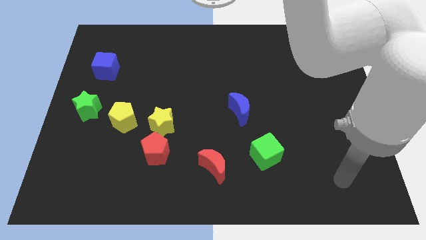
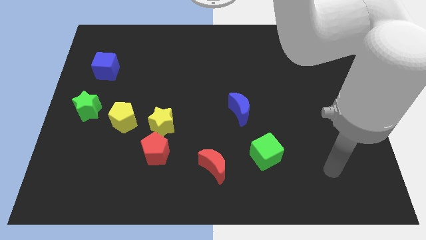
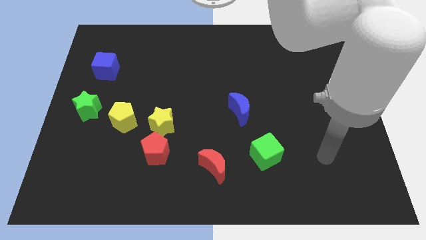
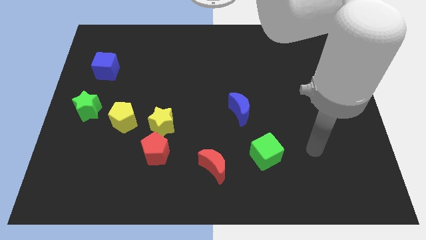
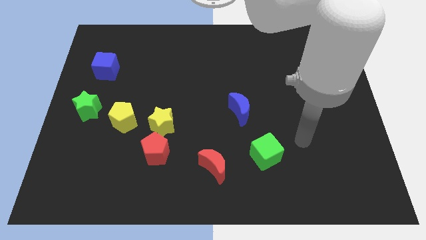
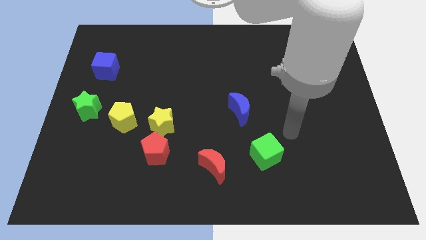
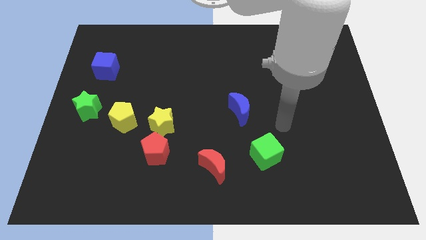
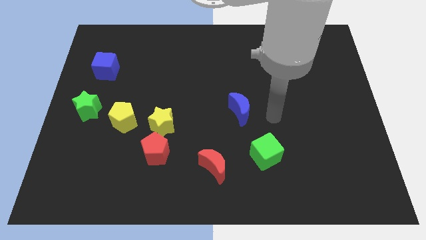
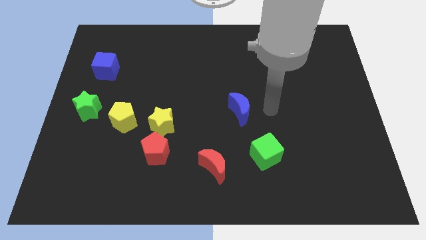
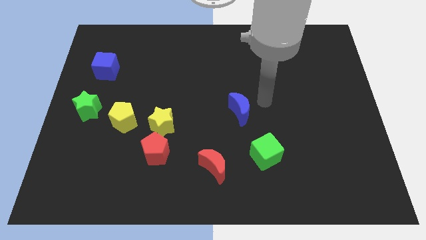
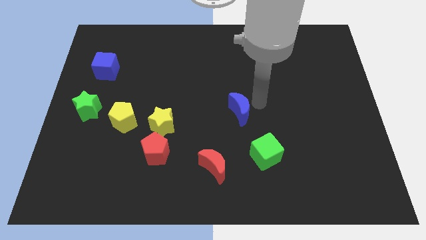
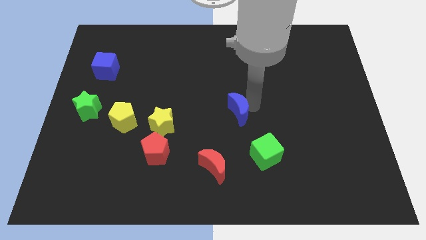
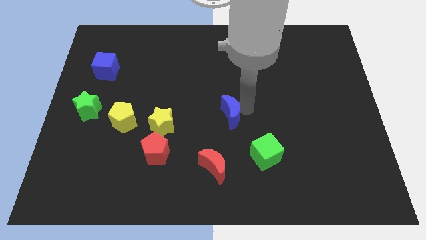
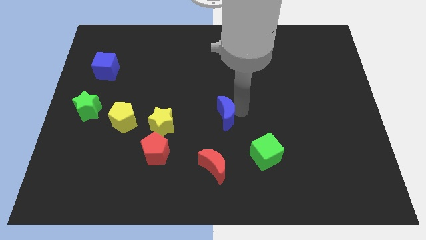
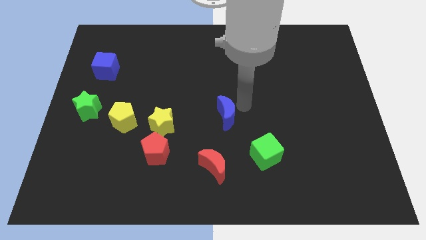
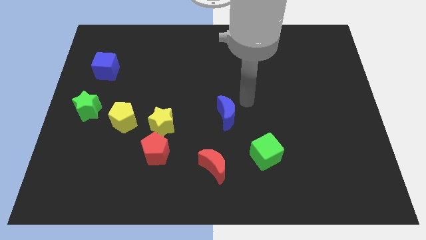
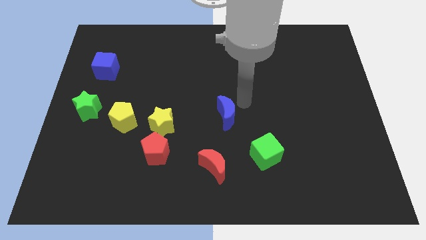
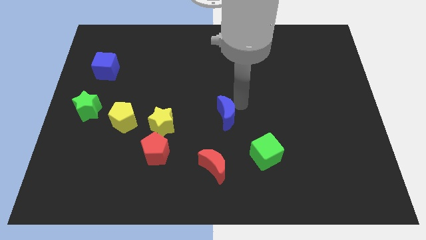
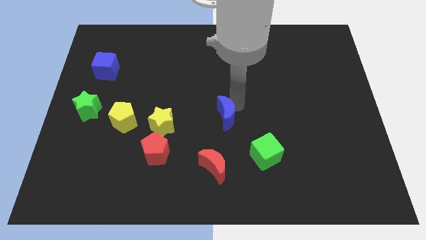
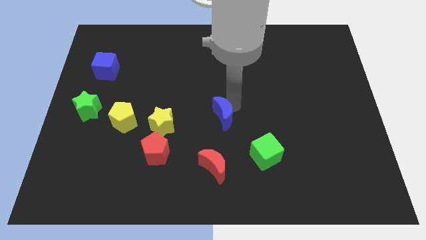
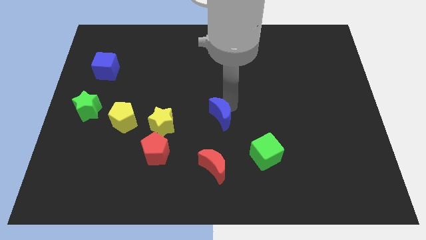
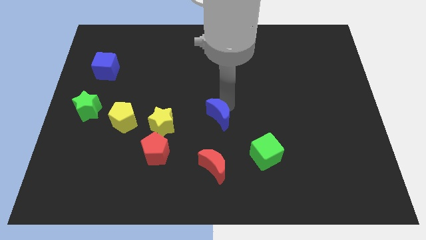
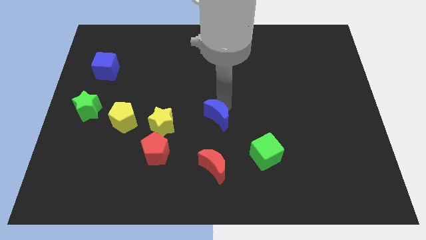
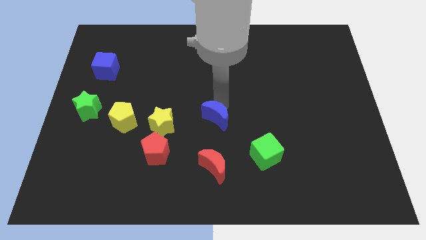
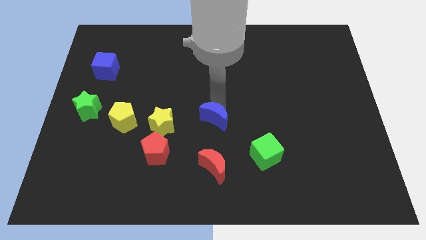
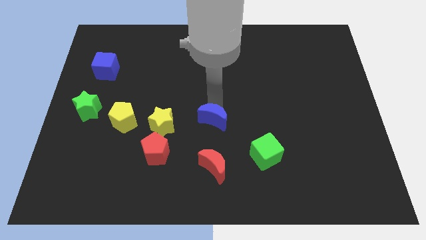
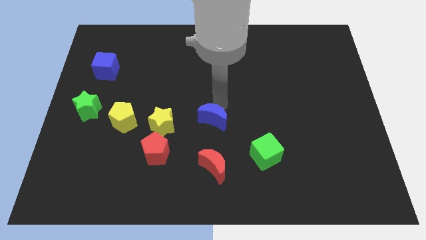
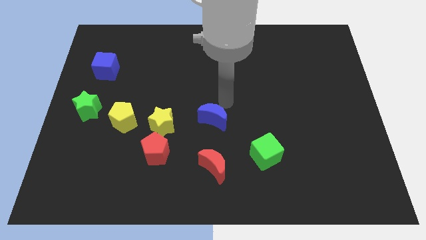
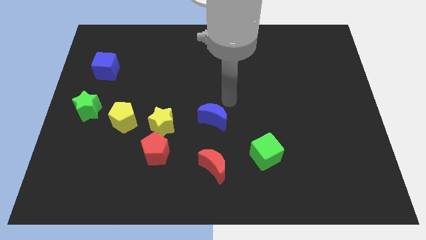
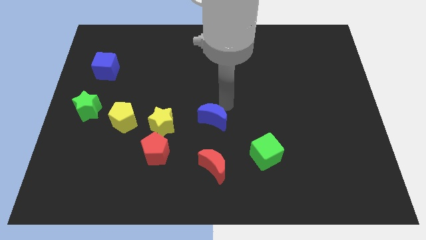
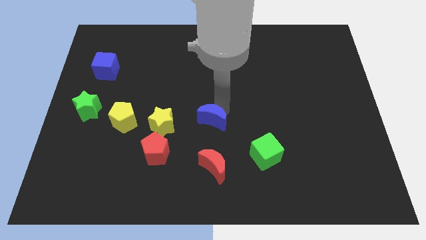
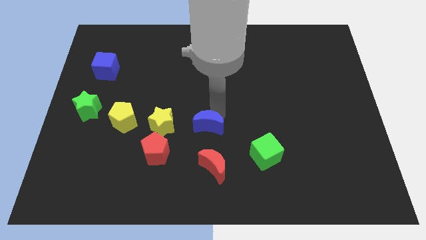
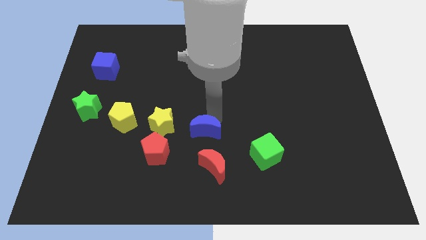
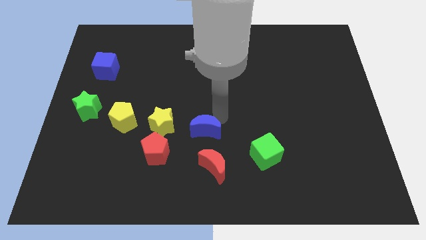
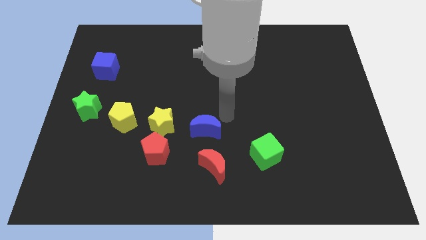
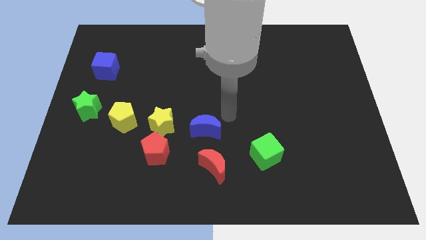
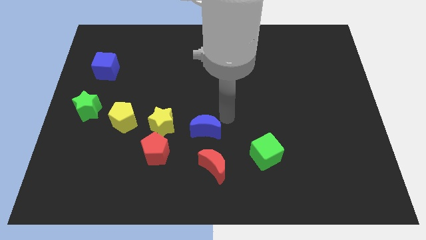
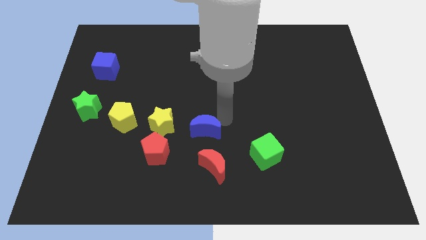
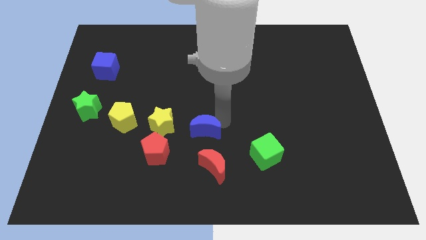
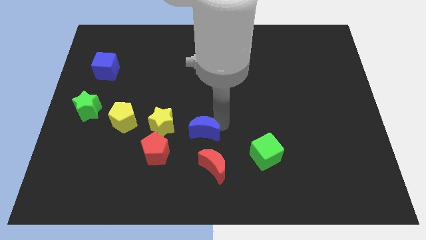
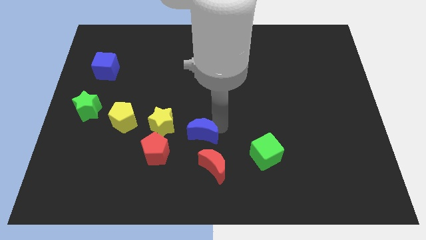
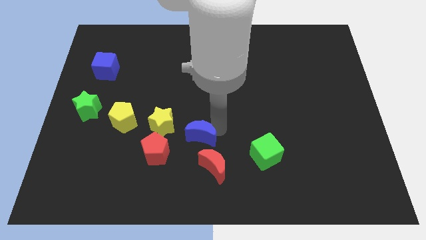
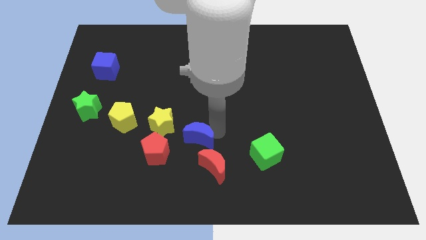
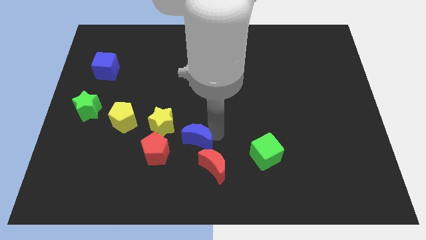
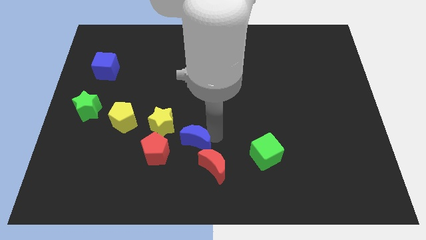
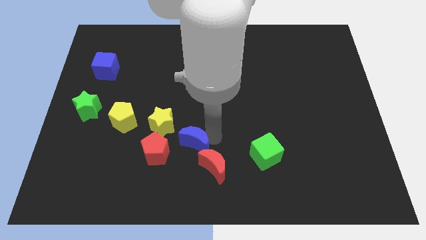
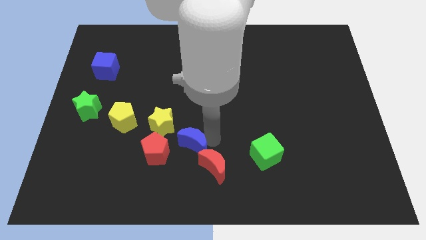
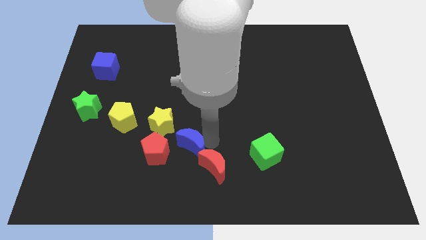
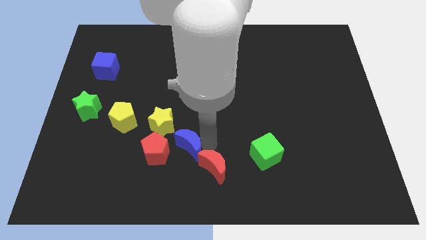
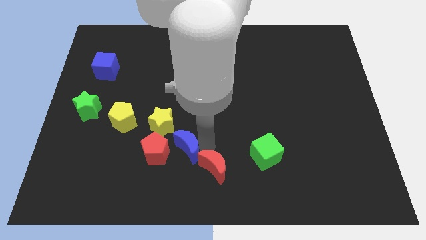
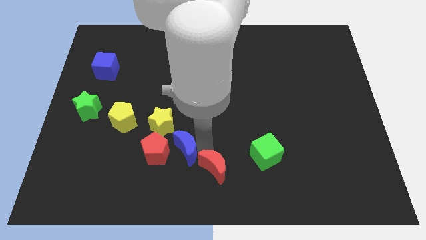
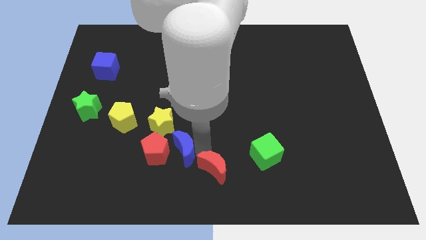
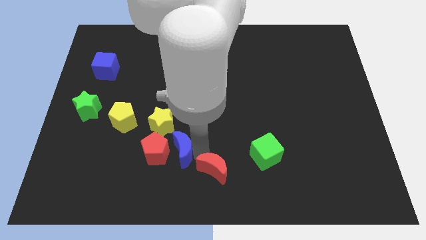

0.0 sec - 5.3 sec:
push the blue moon close to the red pentagon

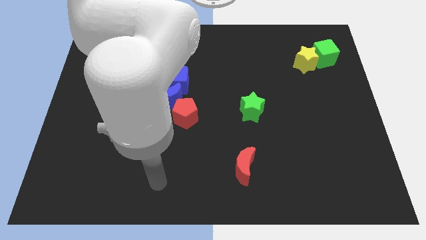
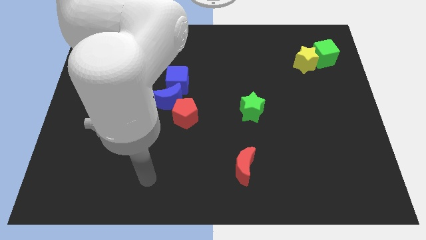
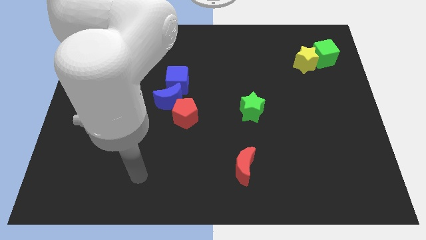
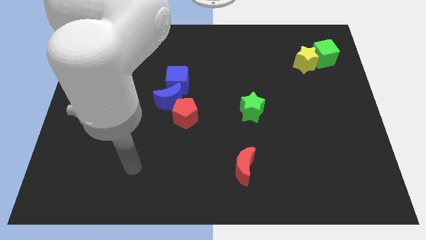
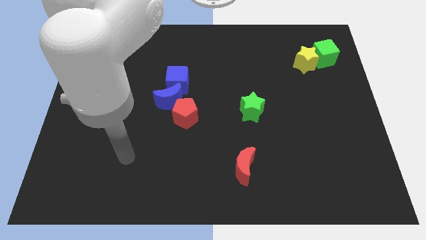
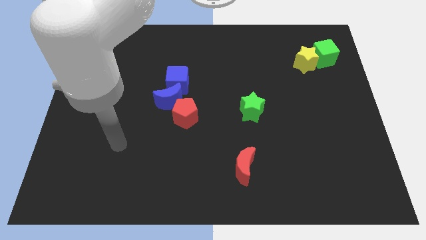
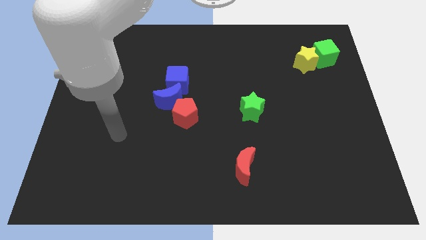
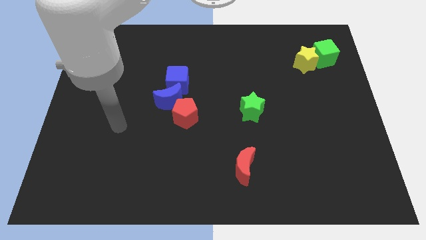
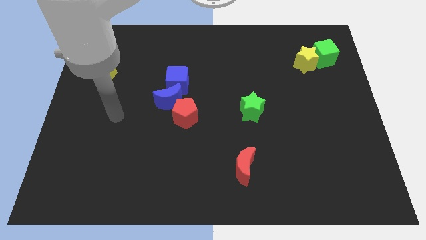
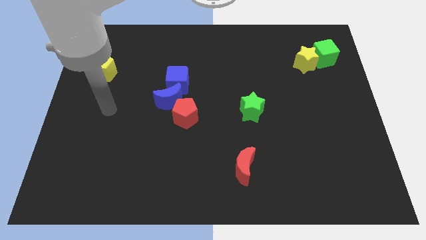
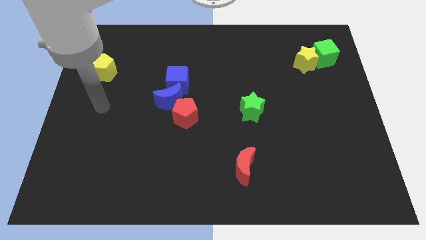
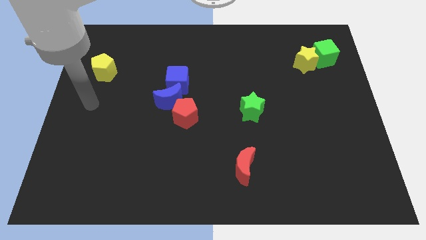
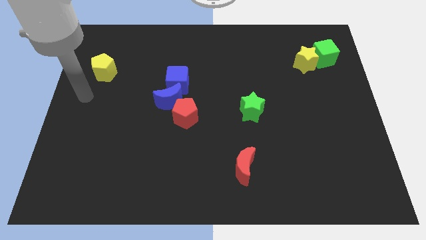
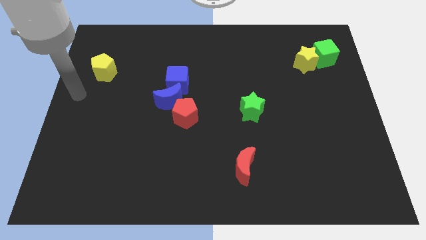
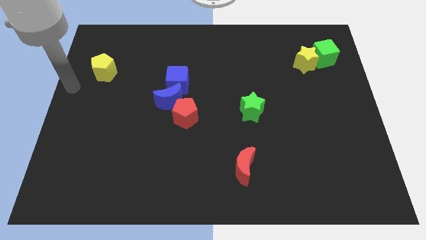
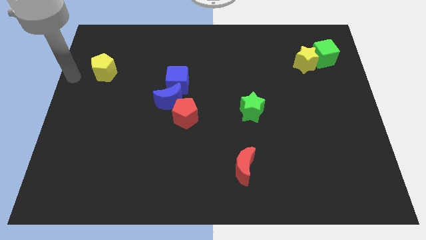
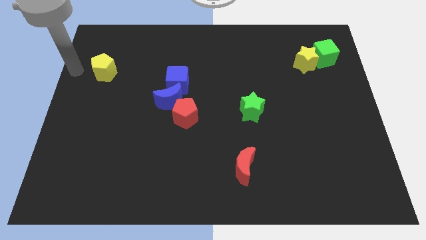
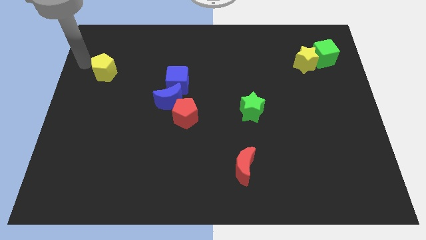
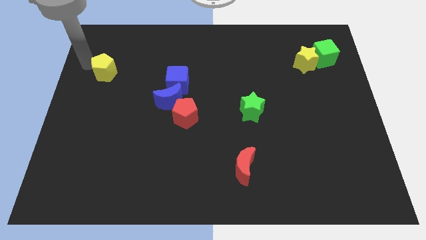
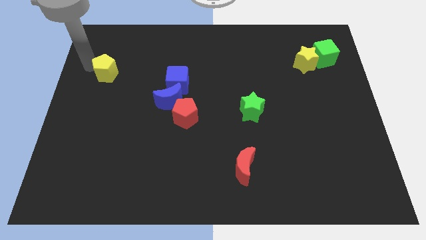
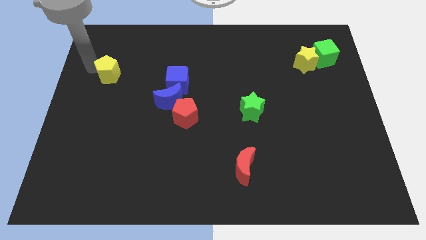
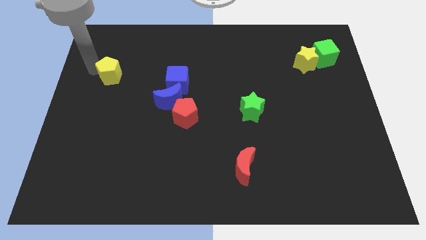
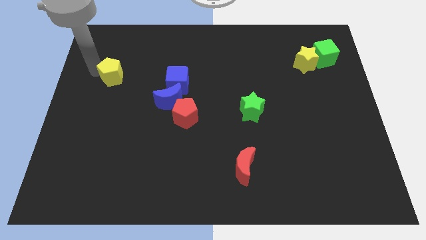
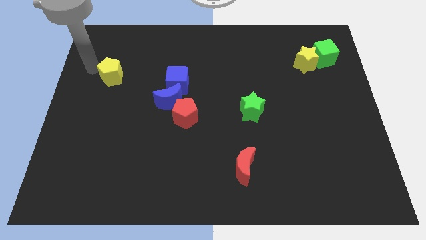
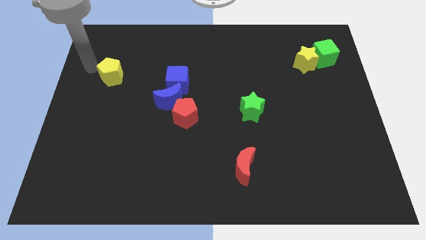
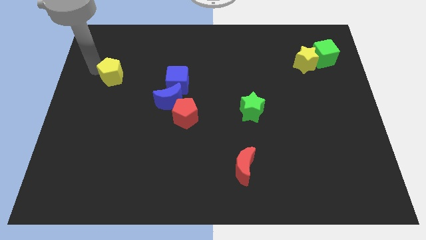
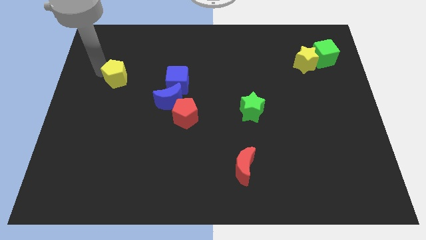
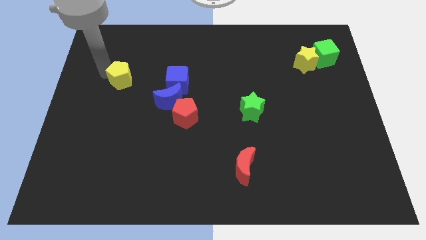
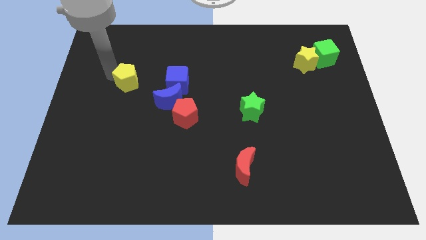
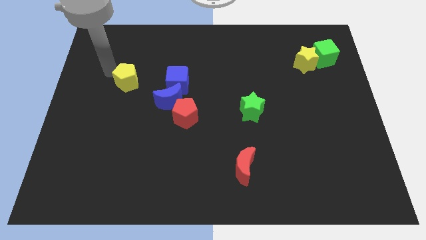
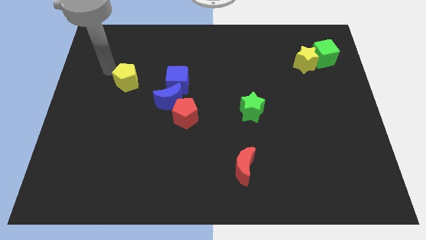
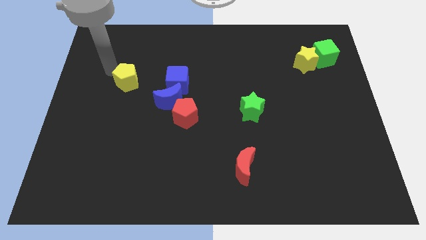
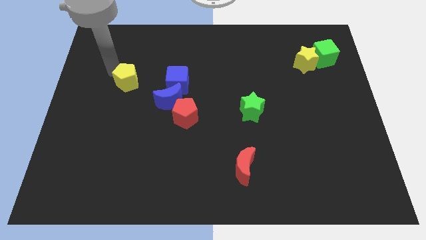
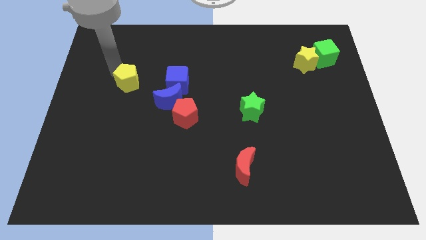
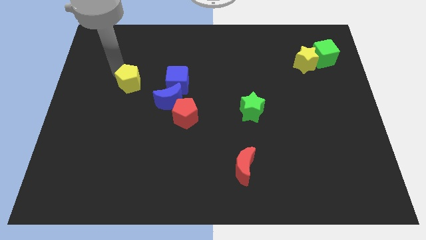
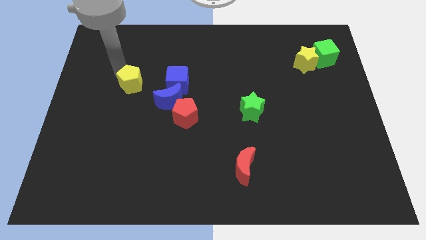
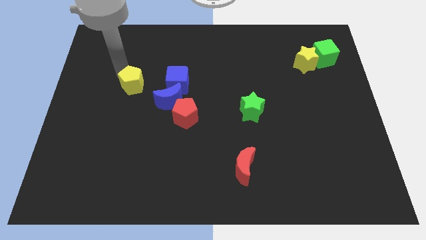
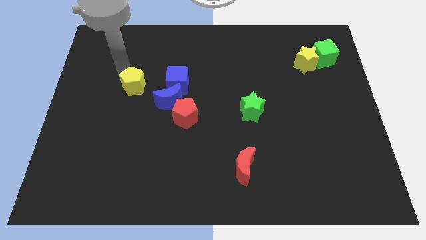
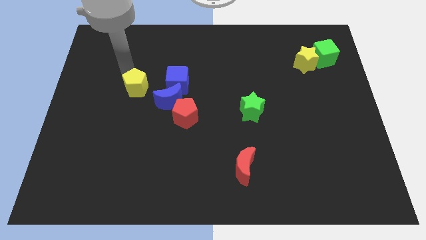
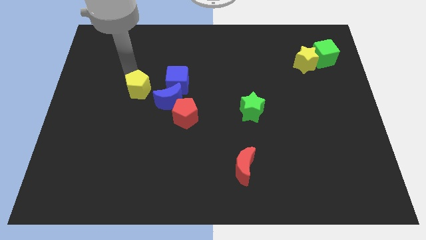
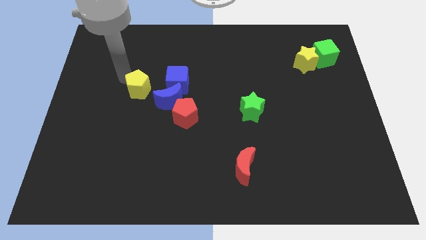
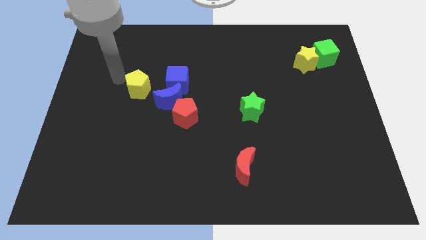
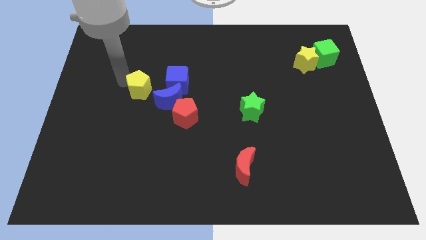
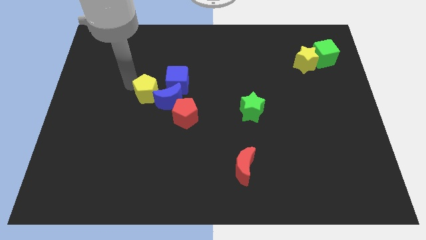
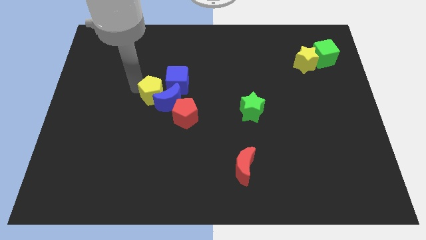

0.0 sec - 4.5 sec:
slide the yellow pentagon towards the blue moon
